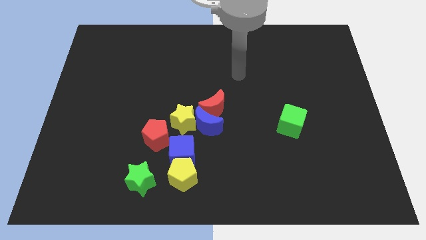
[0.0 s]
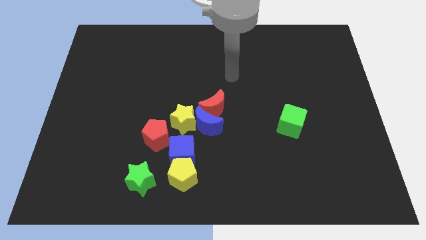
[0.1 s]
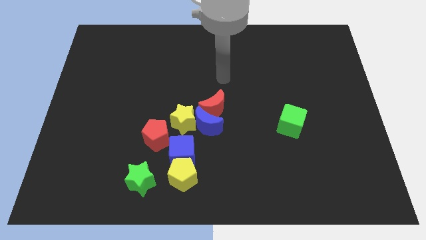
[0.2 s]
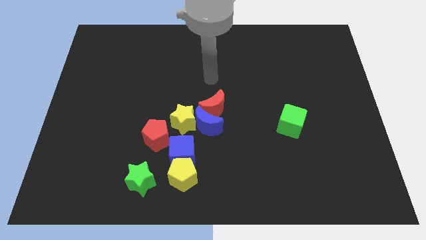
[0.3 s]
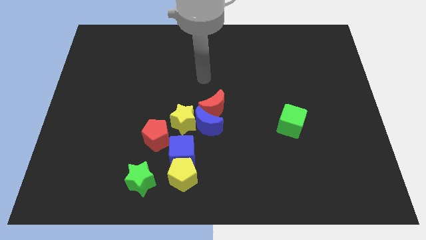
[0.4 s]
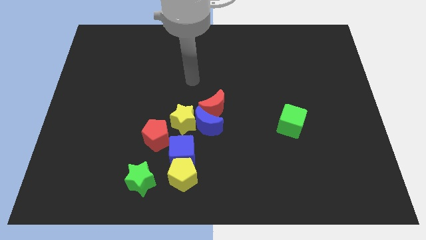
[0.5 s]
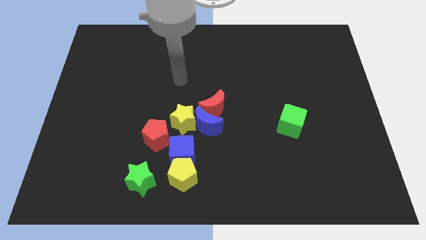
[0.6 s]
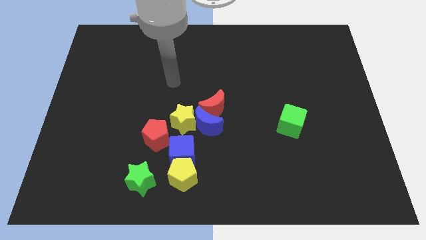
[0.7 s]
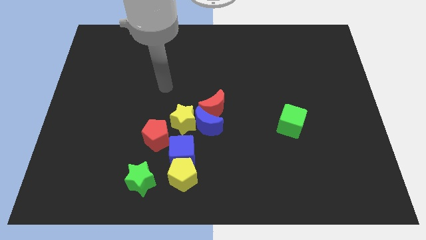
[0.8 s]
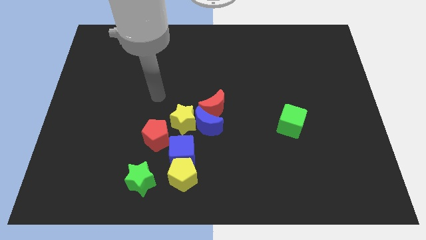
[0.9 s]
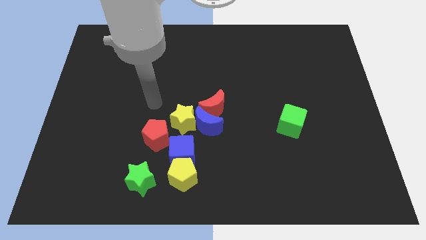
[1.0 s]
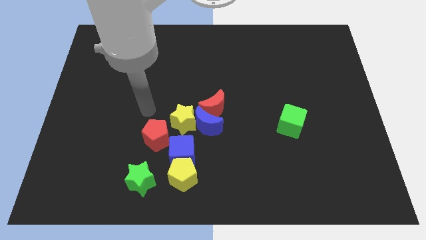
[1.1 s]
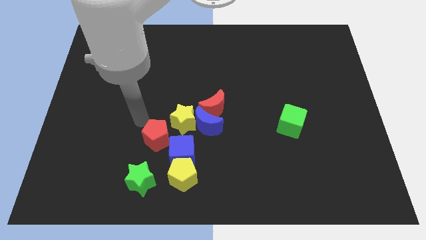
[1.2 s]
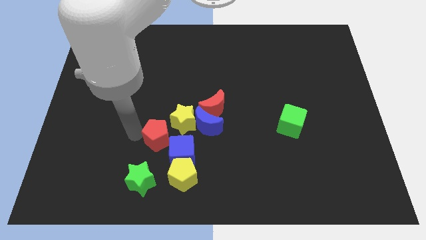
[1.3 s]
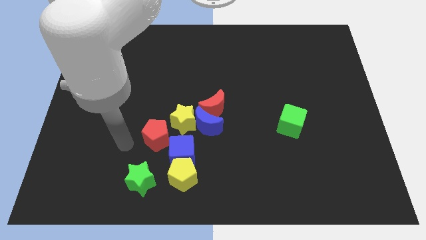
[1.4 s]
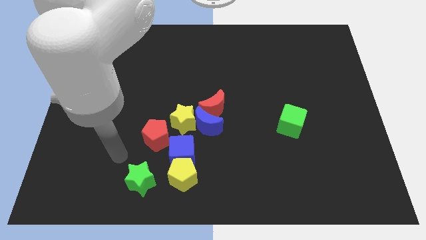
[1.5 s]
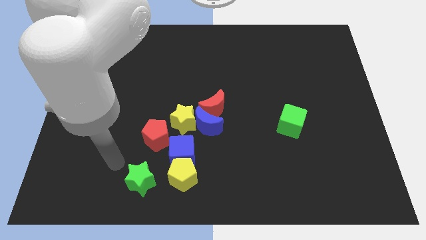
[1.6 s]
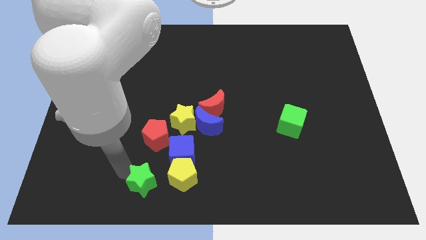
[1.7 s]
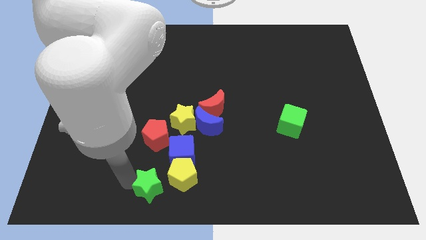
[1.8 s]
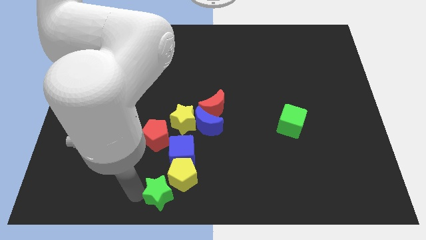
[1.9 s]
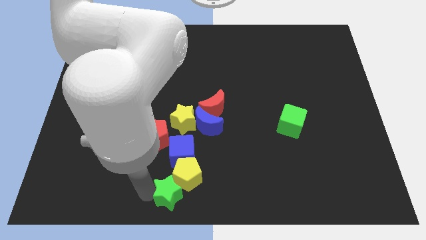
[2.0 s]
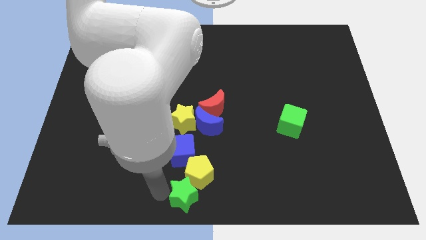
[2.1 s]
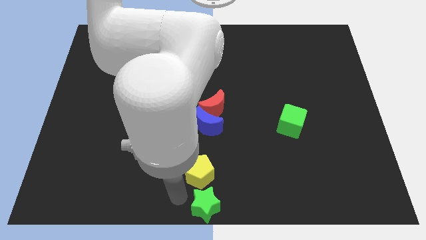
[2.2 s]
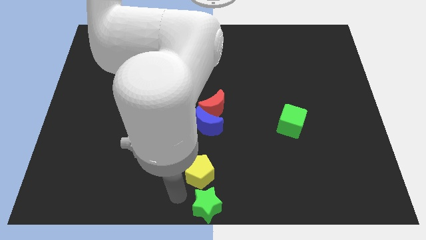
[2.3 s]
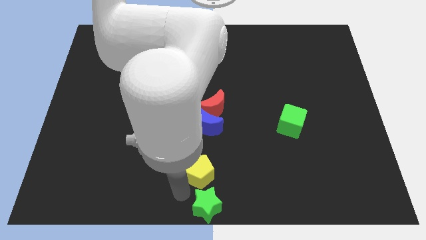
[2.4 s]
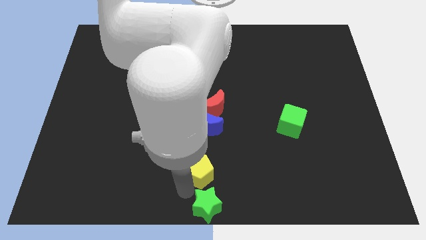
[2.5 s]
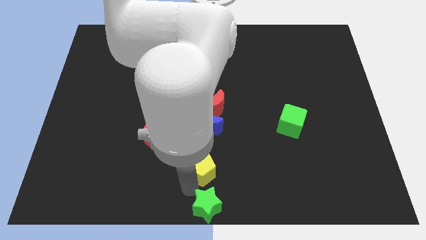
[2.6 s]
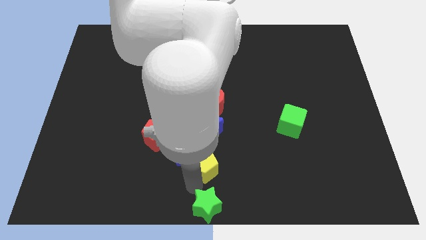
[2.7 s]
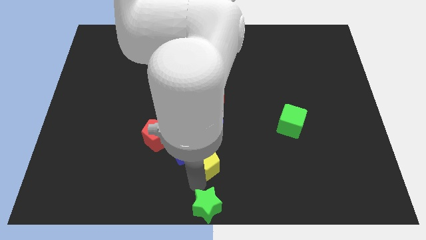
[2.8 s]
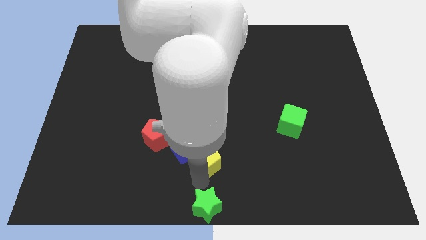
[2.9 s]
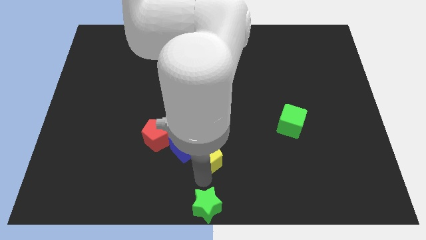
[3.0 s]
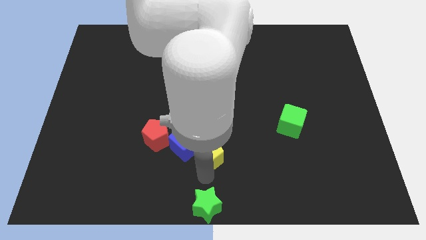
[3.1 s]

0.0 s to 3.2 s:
slide the yellow pentagon a little bit upwards and right

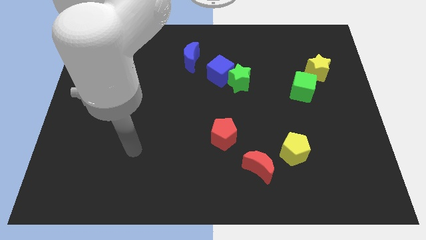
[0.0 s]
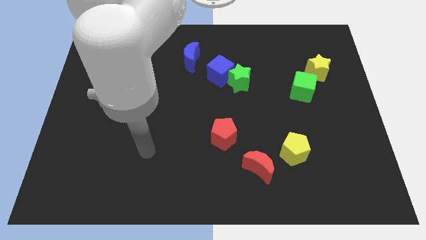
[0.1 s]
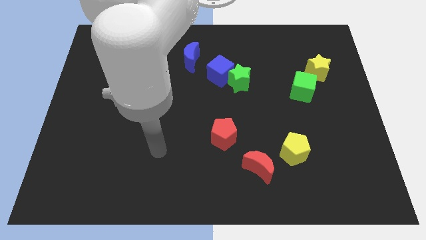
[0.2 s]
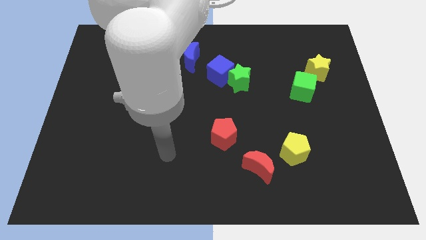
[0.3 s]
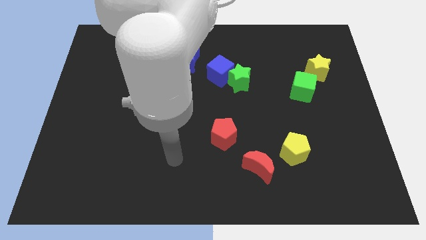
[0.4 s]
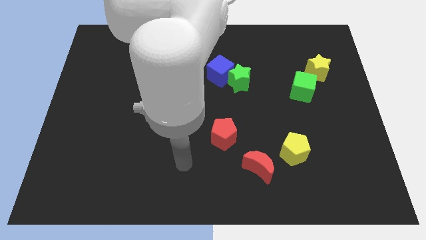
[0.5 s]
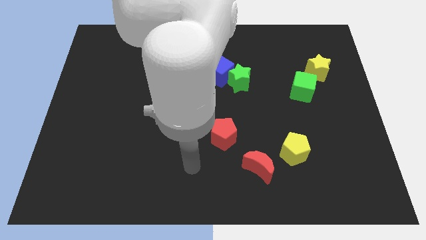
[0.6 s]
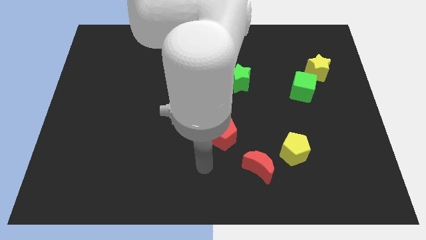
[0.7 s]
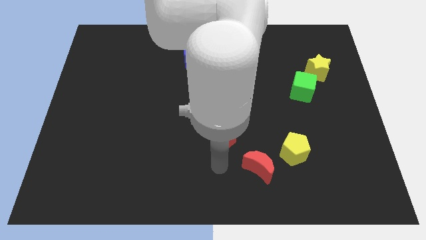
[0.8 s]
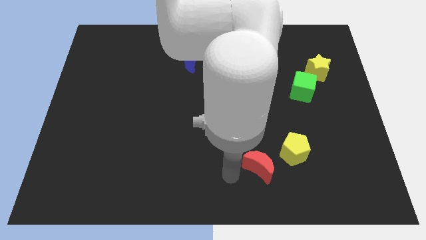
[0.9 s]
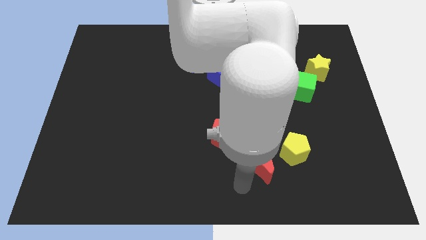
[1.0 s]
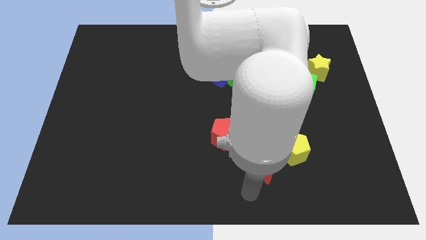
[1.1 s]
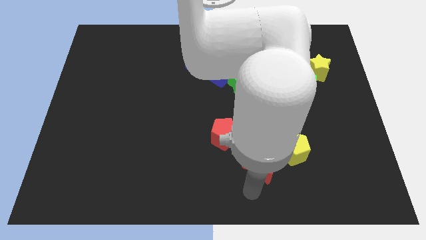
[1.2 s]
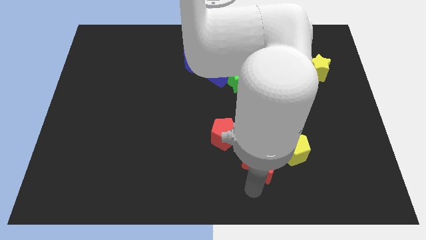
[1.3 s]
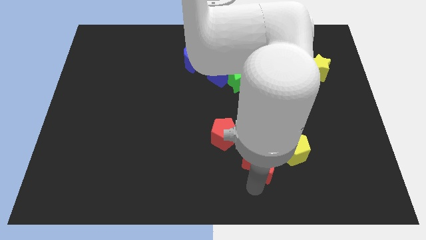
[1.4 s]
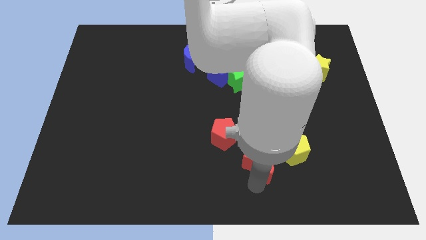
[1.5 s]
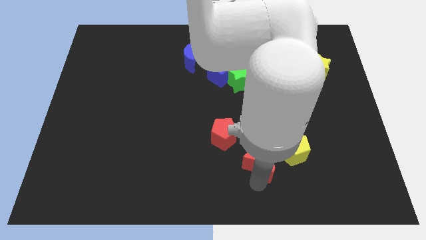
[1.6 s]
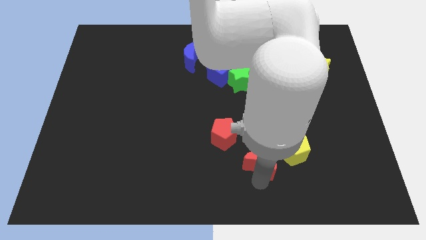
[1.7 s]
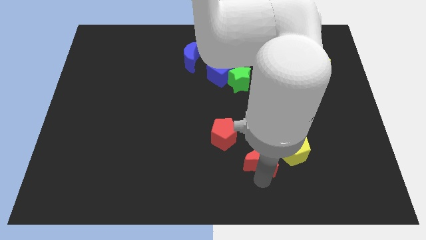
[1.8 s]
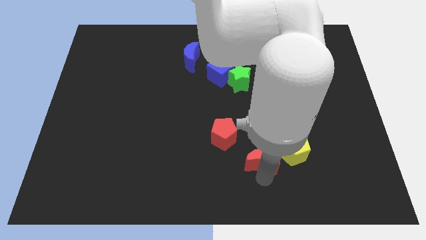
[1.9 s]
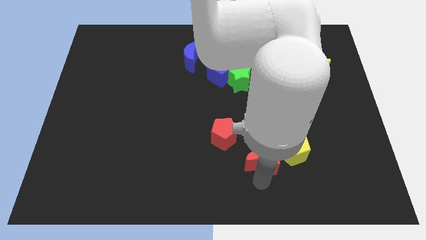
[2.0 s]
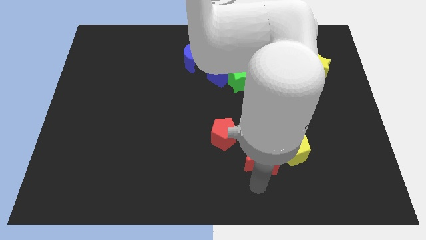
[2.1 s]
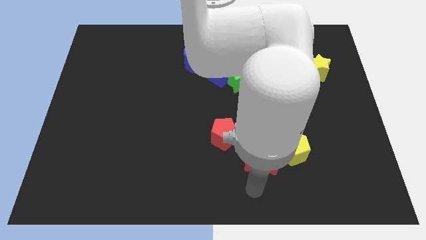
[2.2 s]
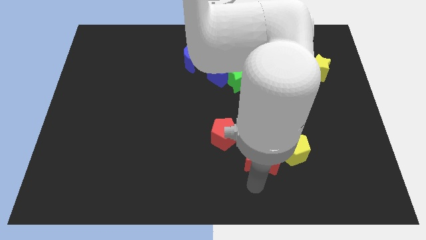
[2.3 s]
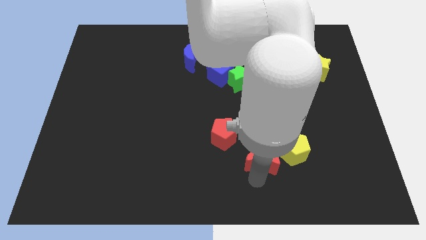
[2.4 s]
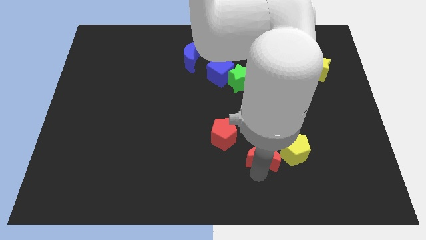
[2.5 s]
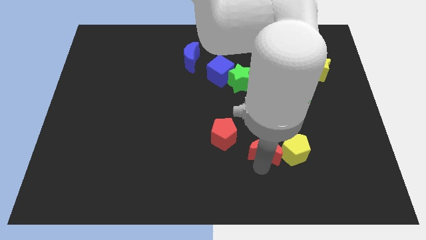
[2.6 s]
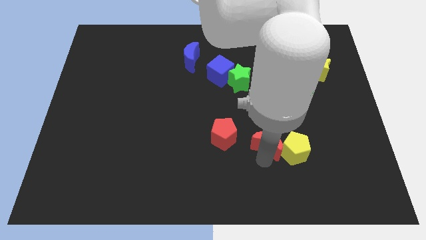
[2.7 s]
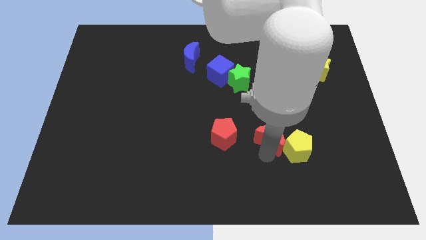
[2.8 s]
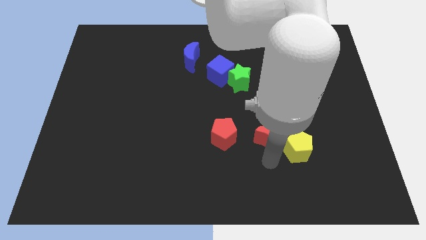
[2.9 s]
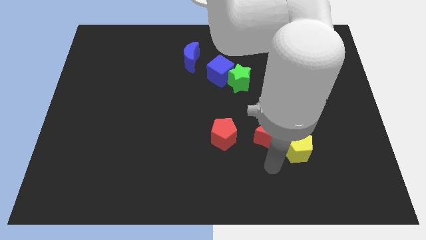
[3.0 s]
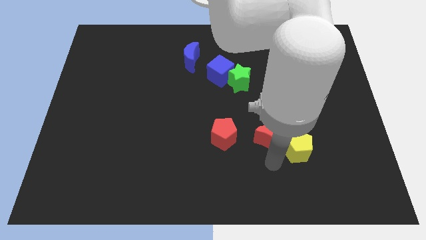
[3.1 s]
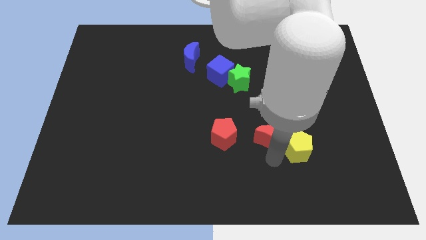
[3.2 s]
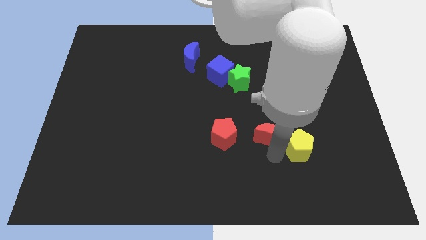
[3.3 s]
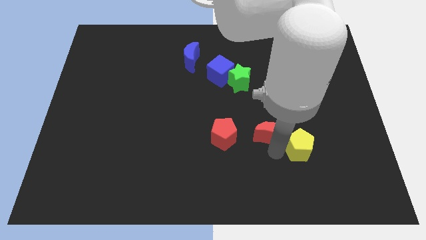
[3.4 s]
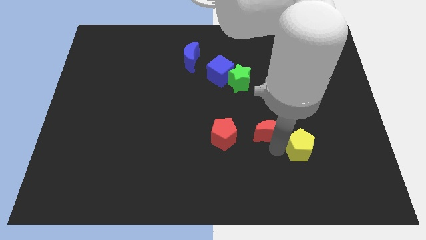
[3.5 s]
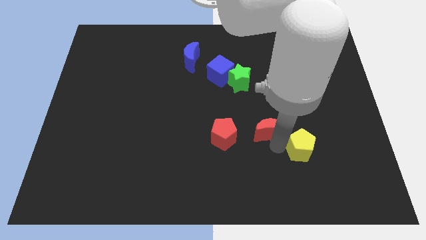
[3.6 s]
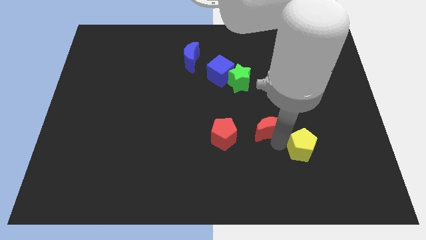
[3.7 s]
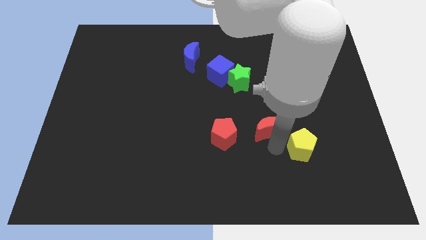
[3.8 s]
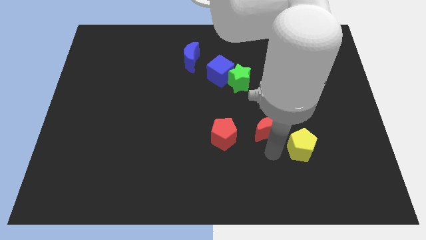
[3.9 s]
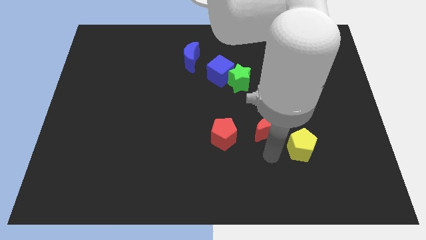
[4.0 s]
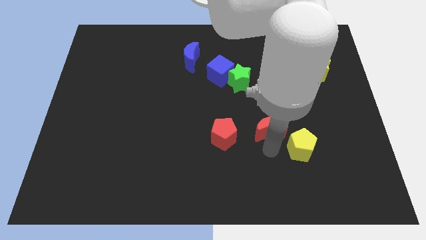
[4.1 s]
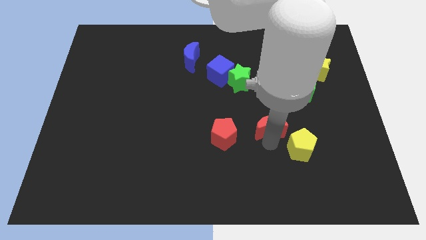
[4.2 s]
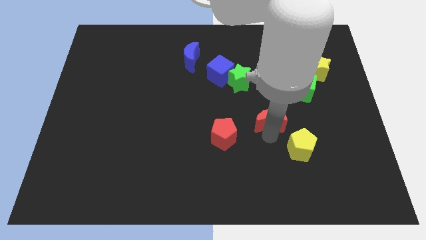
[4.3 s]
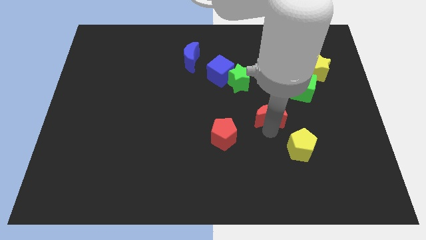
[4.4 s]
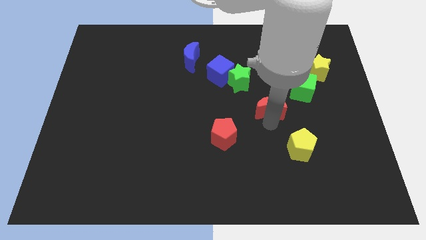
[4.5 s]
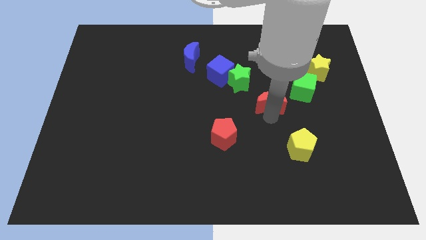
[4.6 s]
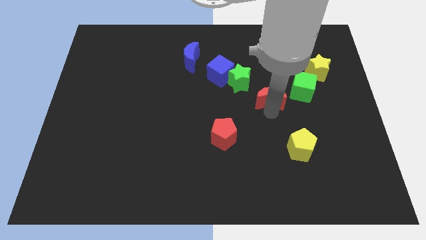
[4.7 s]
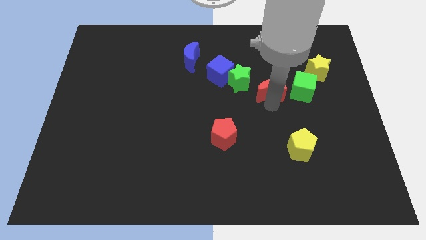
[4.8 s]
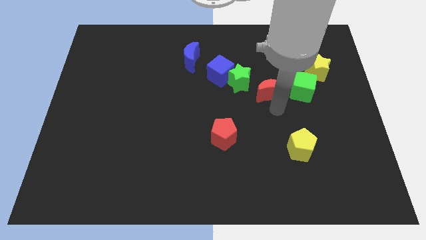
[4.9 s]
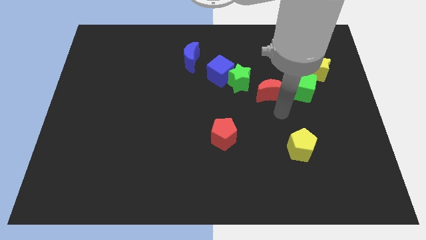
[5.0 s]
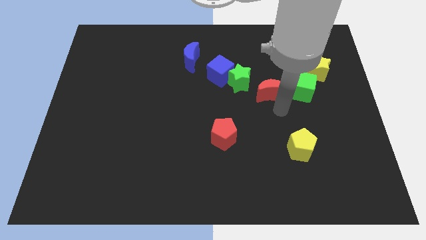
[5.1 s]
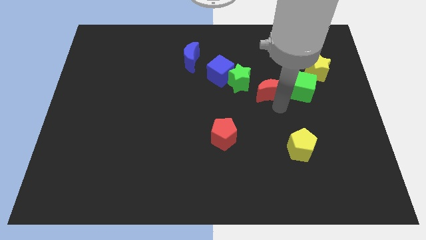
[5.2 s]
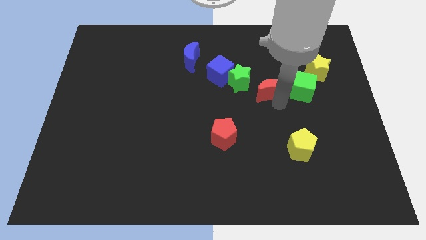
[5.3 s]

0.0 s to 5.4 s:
move the red moon up
